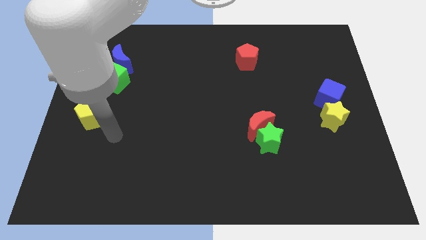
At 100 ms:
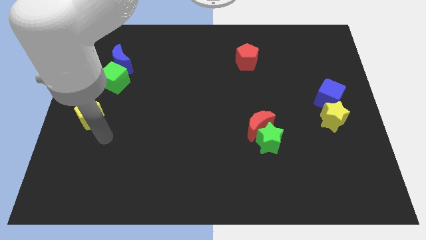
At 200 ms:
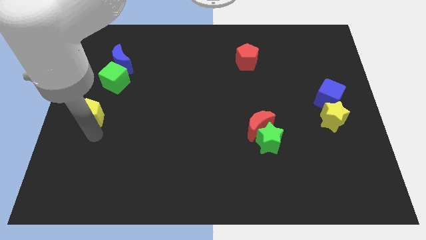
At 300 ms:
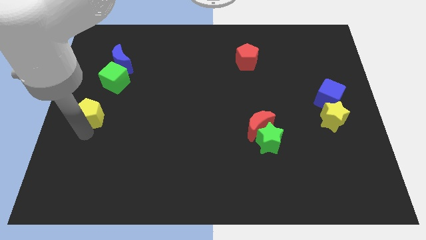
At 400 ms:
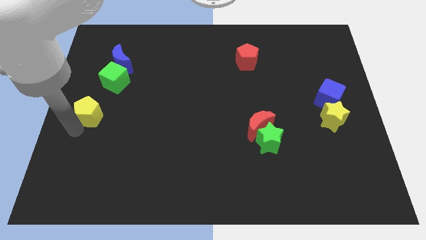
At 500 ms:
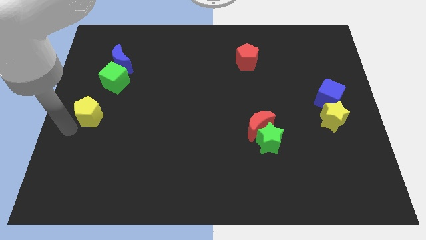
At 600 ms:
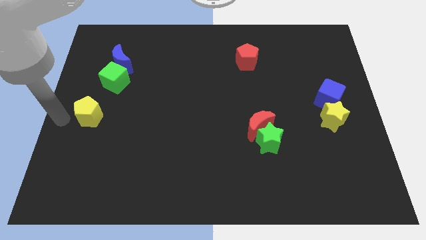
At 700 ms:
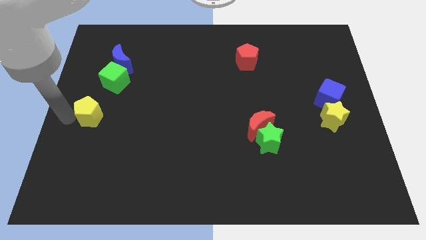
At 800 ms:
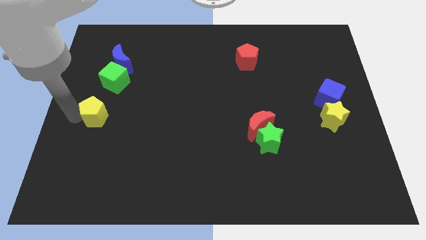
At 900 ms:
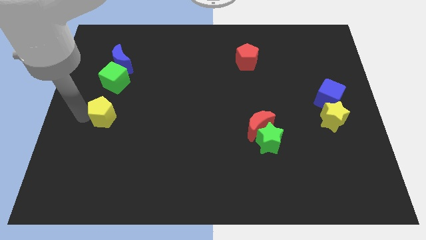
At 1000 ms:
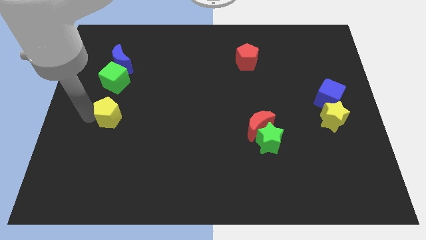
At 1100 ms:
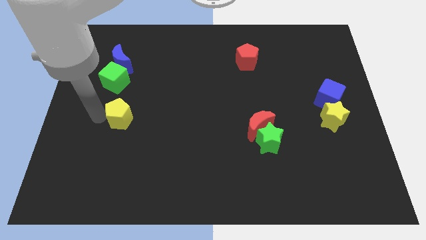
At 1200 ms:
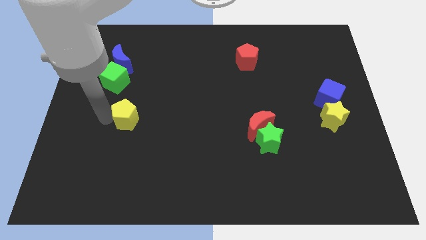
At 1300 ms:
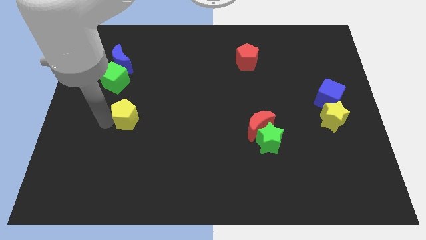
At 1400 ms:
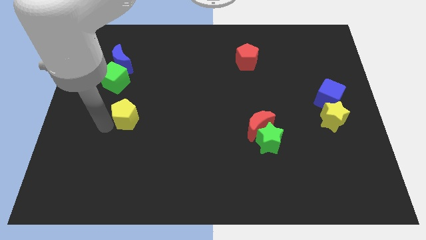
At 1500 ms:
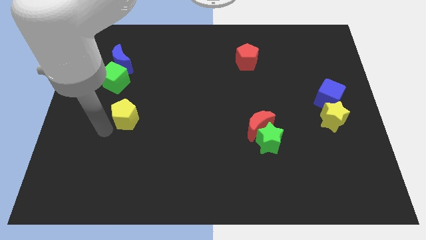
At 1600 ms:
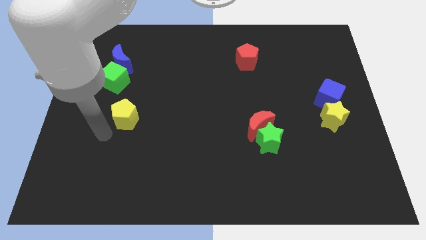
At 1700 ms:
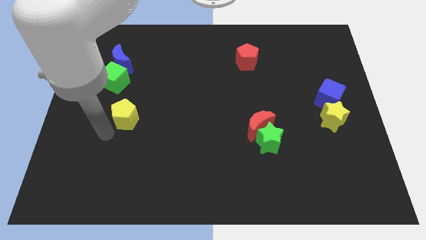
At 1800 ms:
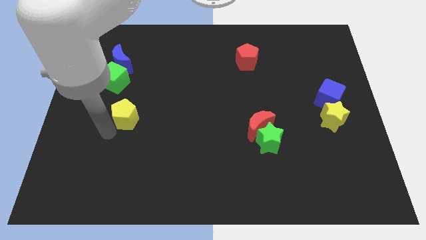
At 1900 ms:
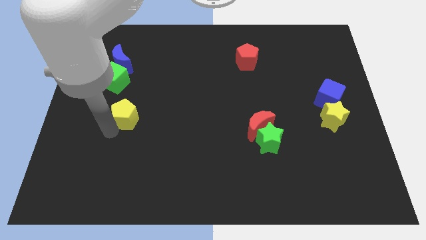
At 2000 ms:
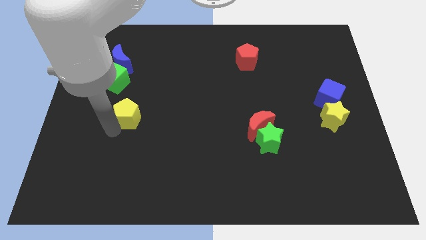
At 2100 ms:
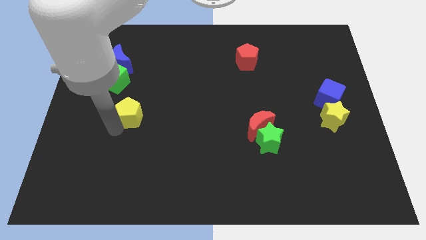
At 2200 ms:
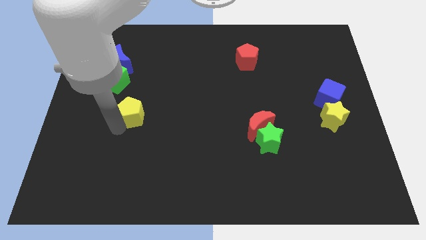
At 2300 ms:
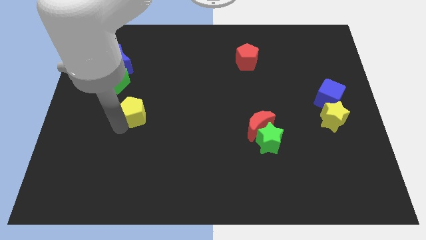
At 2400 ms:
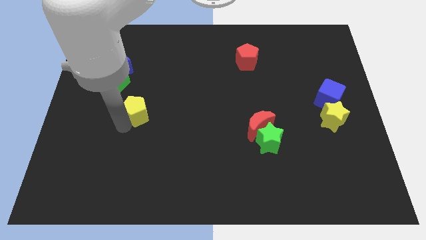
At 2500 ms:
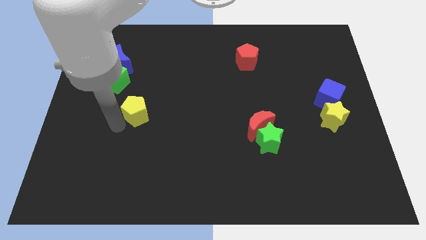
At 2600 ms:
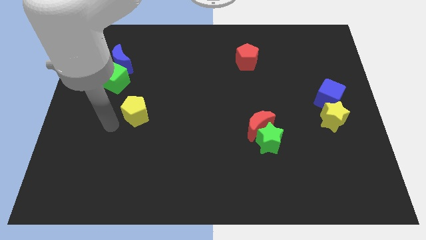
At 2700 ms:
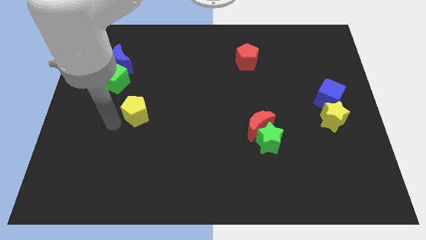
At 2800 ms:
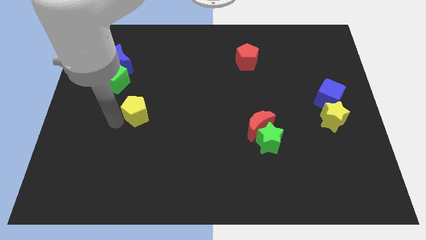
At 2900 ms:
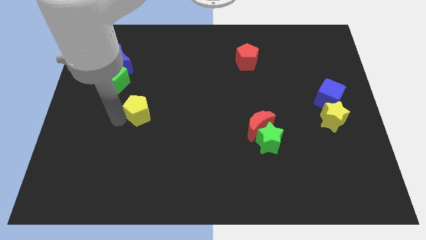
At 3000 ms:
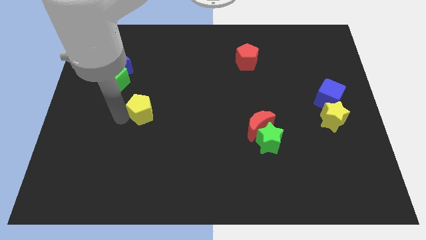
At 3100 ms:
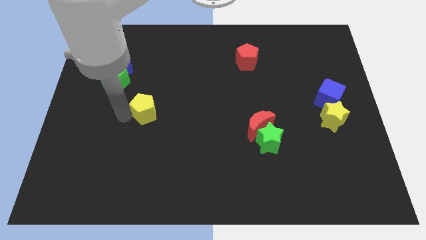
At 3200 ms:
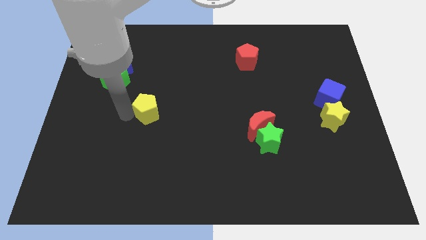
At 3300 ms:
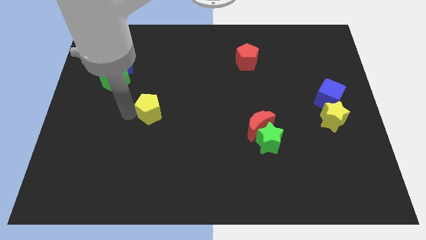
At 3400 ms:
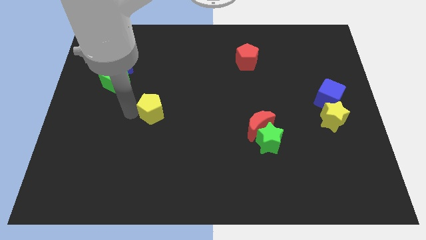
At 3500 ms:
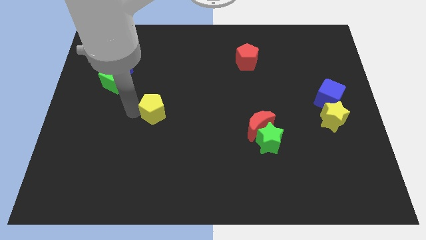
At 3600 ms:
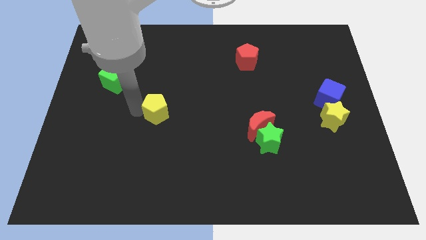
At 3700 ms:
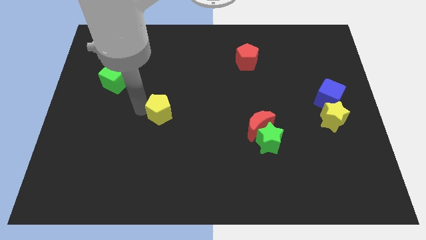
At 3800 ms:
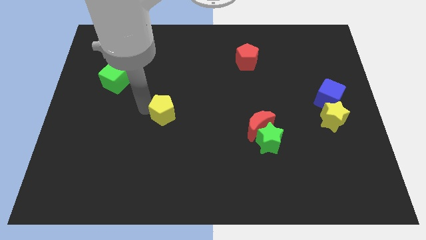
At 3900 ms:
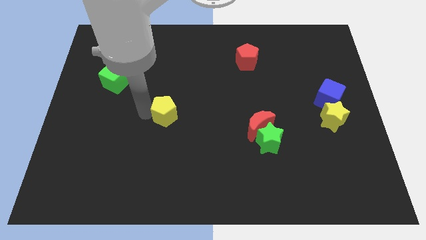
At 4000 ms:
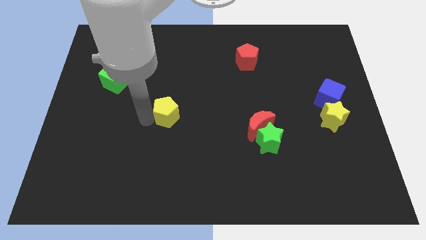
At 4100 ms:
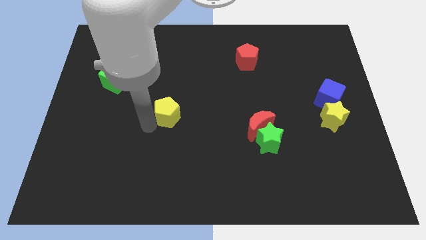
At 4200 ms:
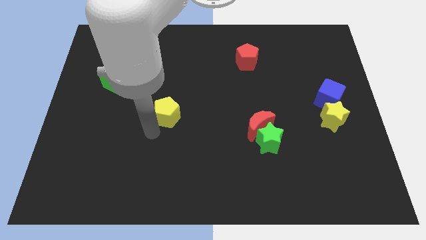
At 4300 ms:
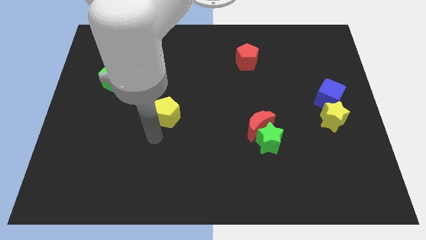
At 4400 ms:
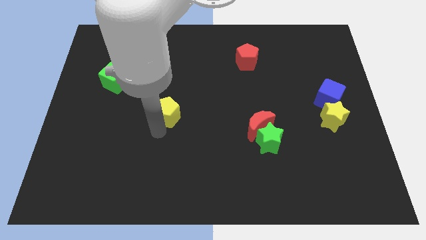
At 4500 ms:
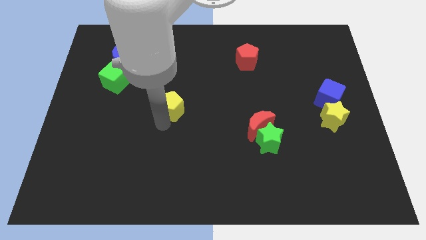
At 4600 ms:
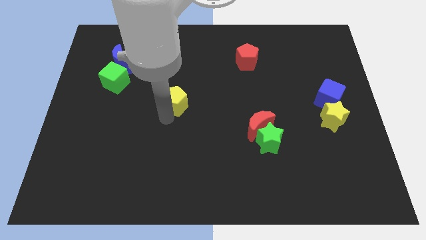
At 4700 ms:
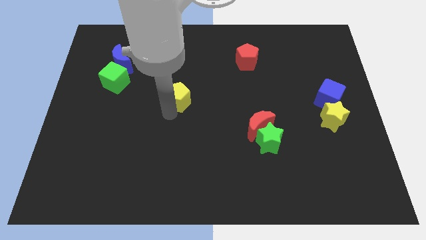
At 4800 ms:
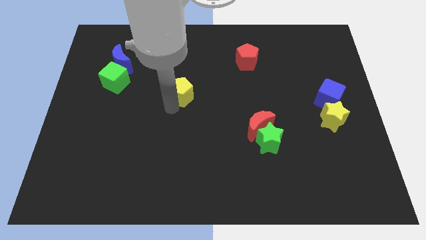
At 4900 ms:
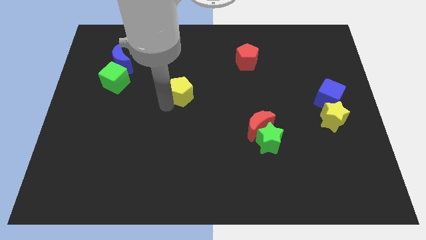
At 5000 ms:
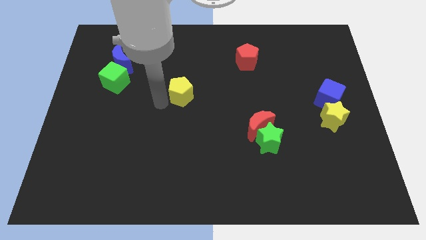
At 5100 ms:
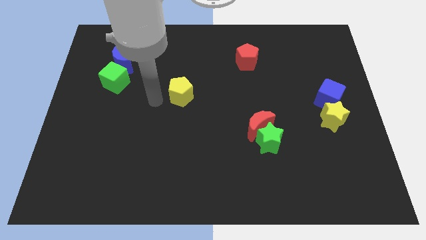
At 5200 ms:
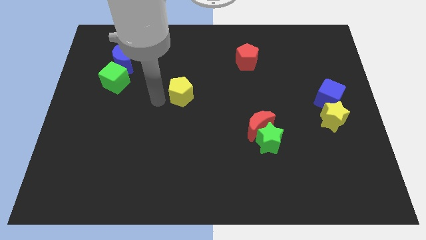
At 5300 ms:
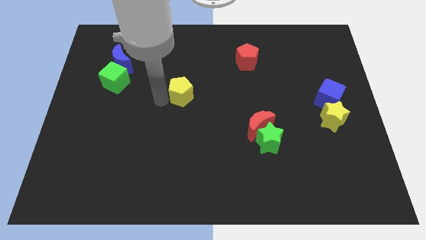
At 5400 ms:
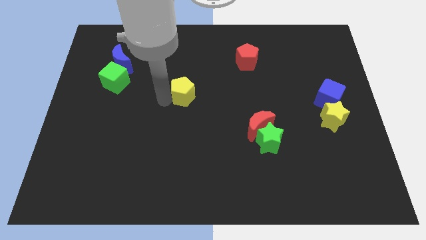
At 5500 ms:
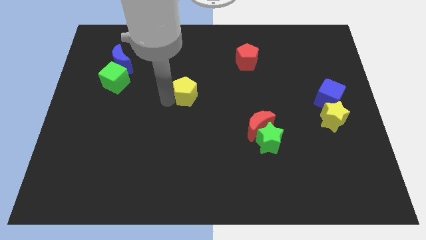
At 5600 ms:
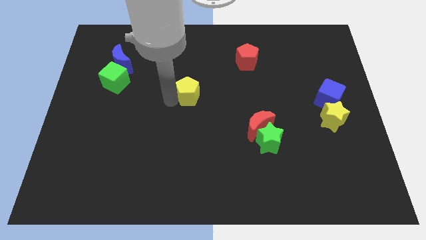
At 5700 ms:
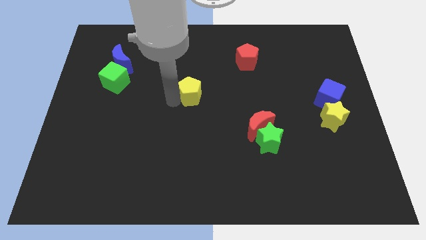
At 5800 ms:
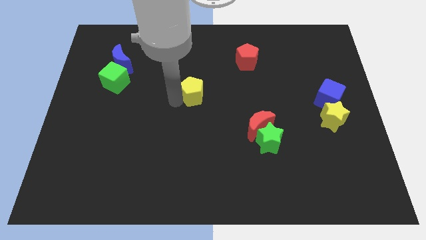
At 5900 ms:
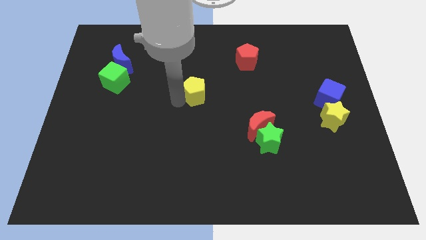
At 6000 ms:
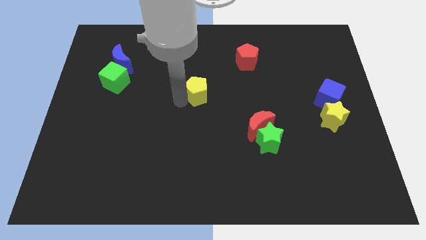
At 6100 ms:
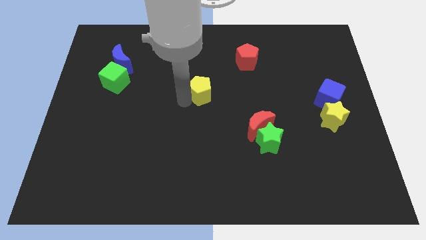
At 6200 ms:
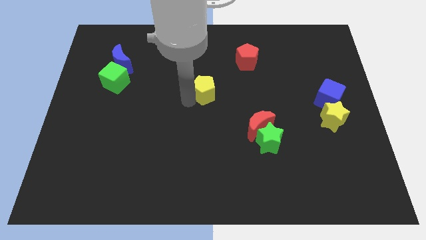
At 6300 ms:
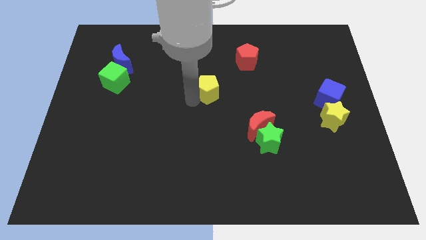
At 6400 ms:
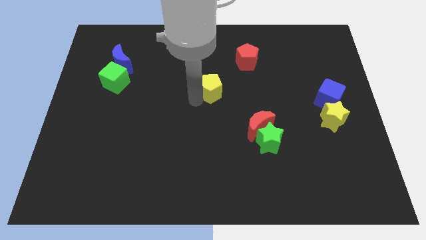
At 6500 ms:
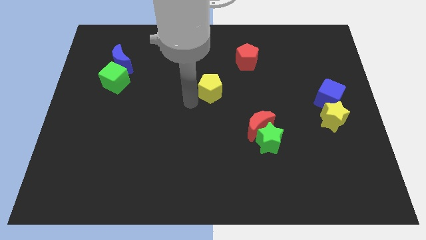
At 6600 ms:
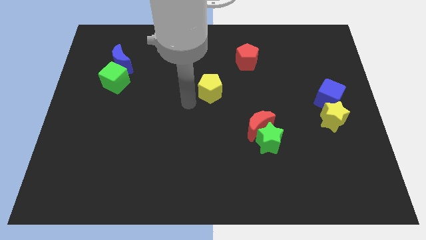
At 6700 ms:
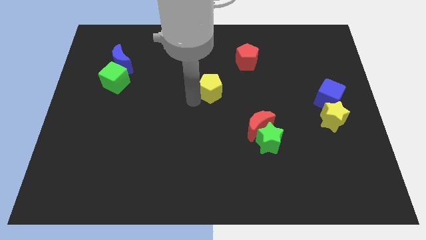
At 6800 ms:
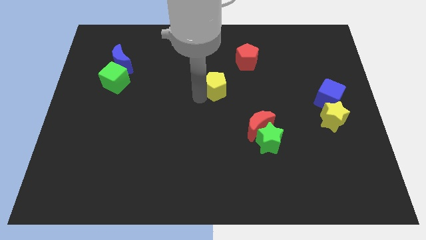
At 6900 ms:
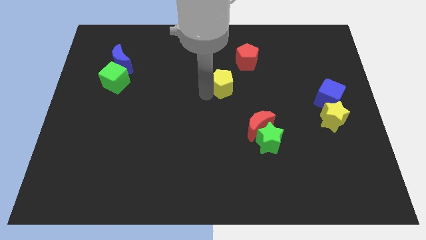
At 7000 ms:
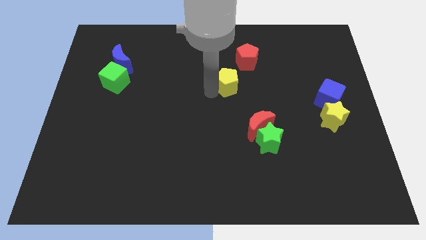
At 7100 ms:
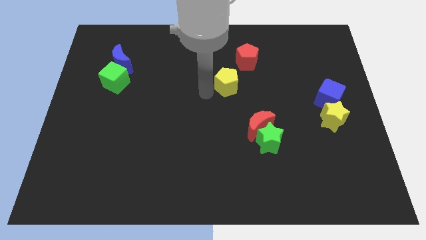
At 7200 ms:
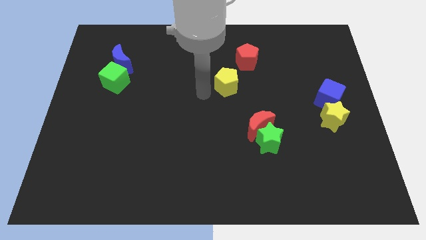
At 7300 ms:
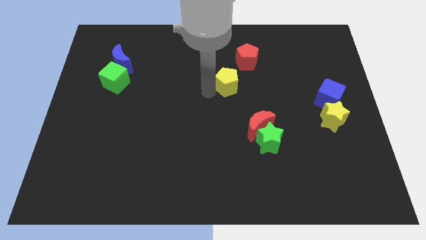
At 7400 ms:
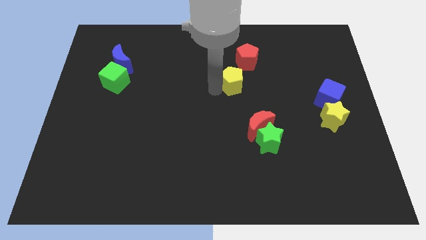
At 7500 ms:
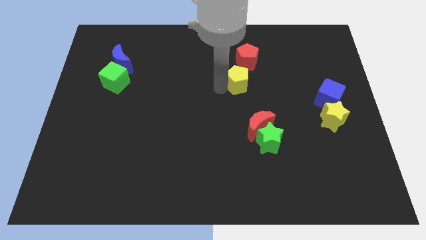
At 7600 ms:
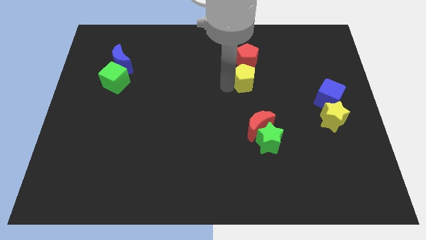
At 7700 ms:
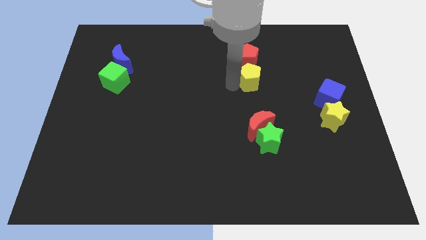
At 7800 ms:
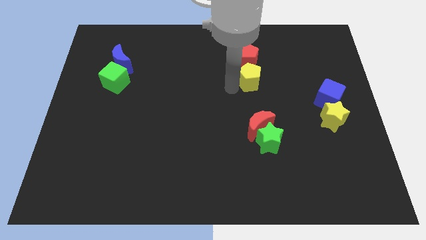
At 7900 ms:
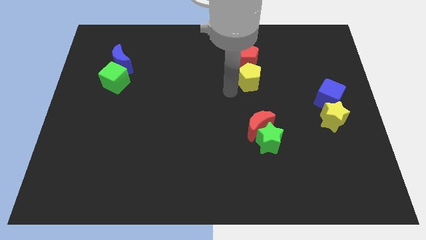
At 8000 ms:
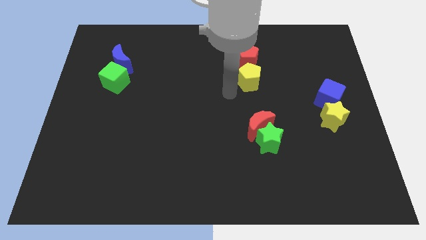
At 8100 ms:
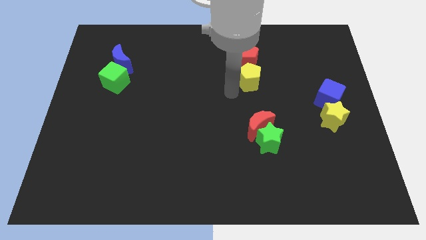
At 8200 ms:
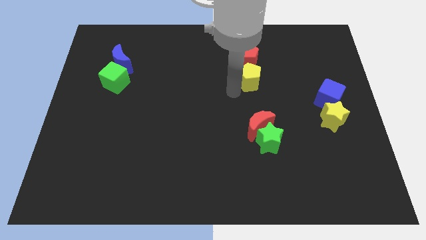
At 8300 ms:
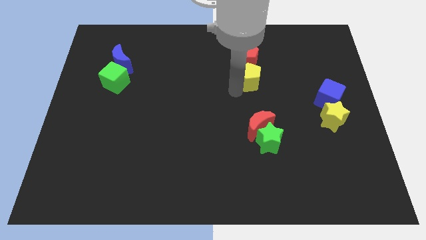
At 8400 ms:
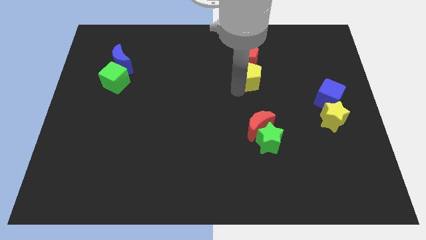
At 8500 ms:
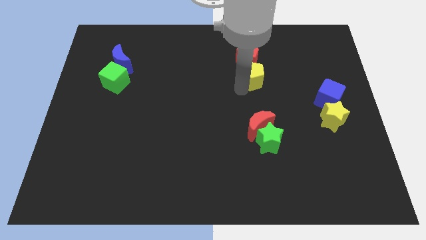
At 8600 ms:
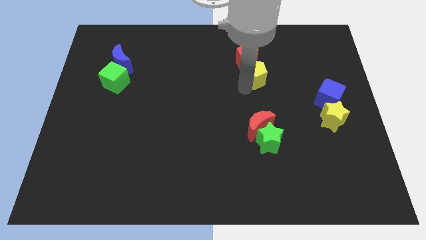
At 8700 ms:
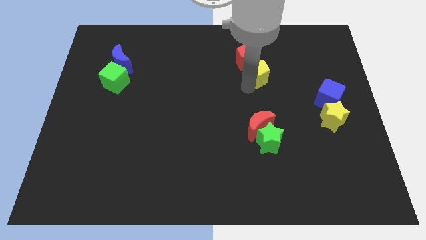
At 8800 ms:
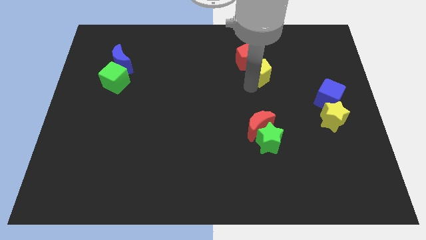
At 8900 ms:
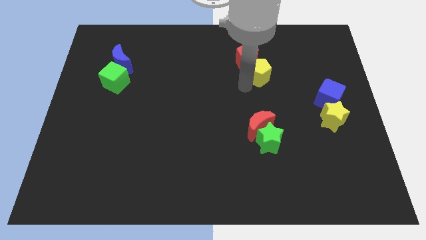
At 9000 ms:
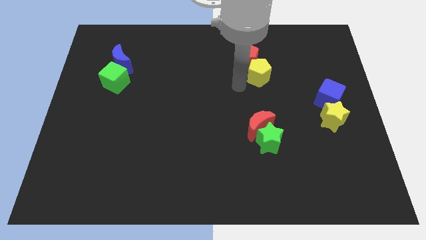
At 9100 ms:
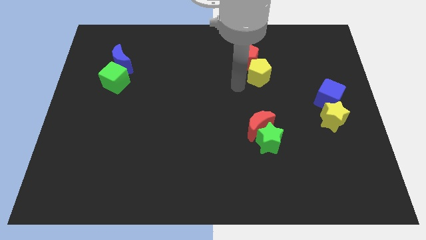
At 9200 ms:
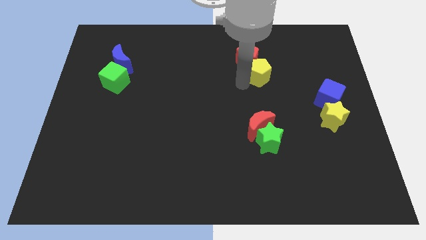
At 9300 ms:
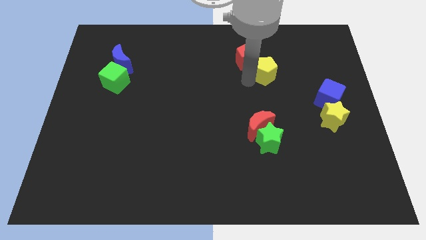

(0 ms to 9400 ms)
push the yellow pentagon right of the red pentagon
